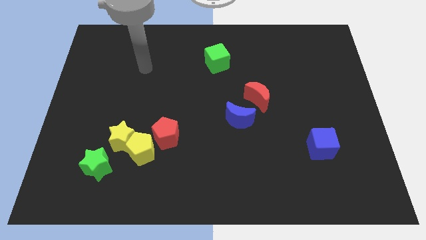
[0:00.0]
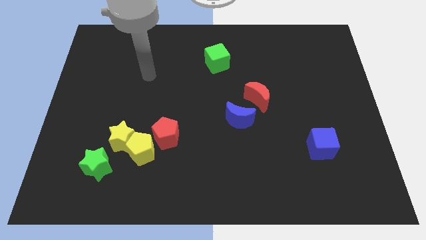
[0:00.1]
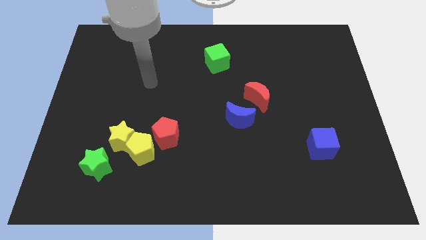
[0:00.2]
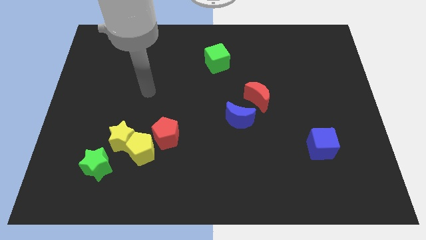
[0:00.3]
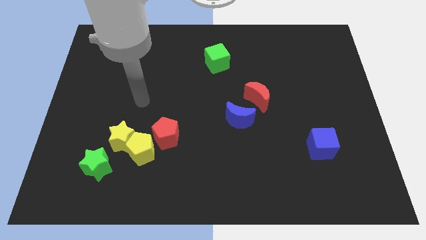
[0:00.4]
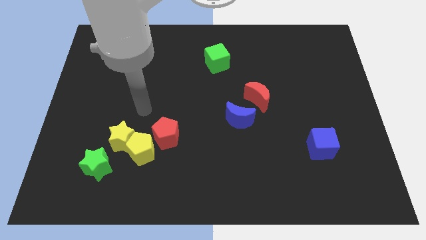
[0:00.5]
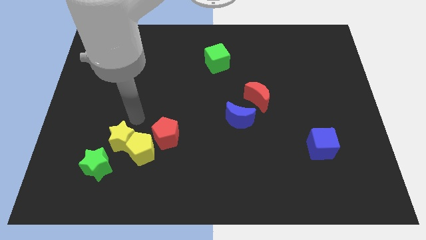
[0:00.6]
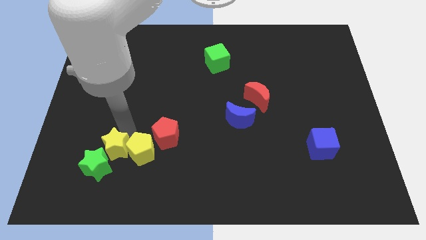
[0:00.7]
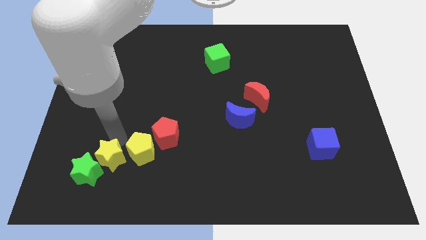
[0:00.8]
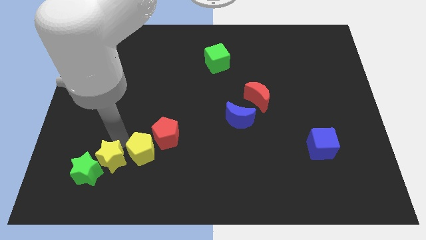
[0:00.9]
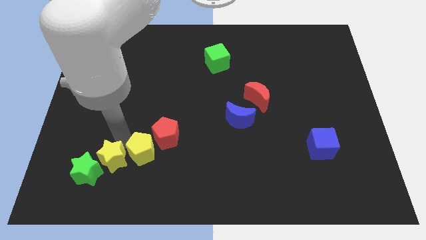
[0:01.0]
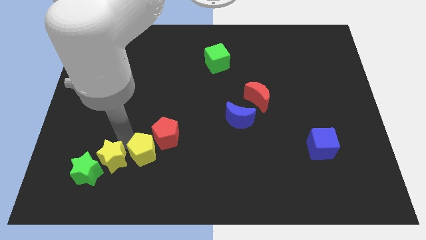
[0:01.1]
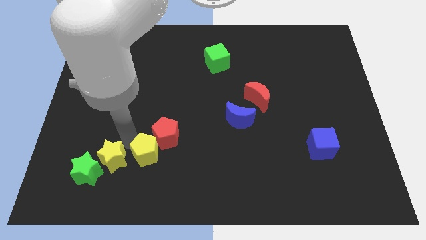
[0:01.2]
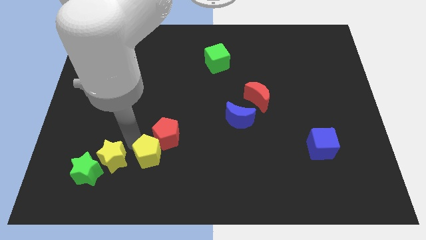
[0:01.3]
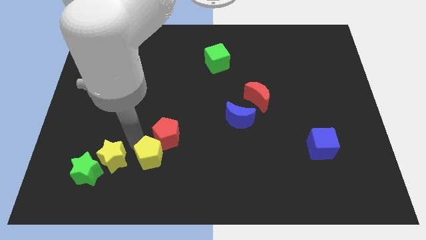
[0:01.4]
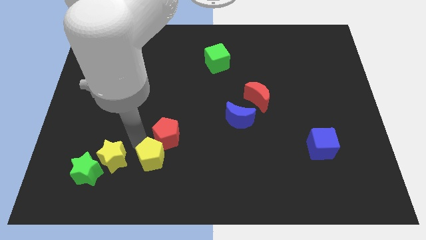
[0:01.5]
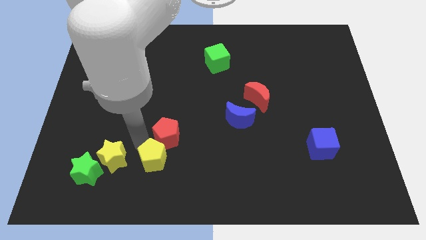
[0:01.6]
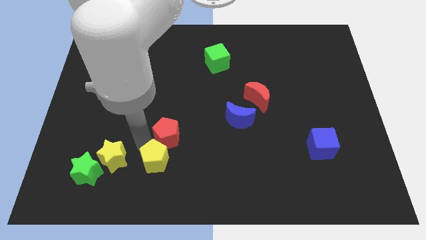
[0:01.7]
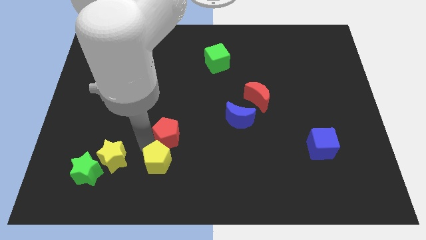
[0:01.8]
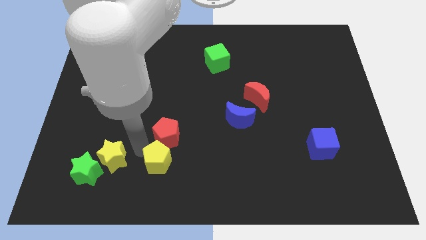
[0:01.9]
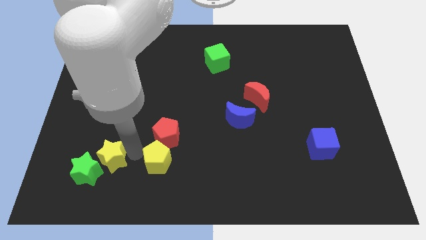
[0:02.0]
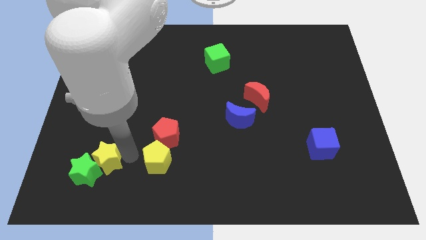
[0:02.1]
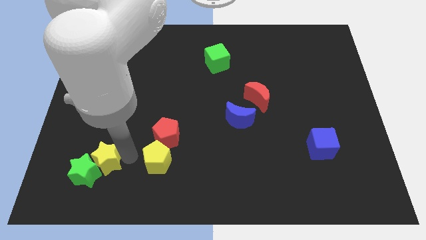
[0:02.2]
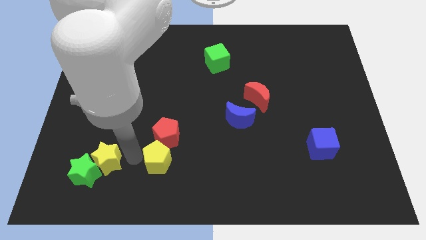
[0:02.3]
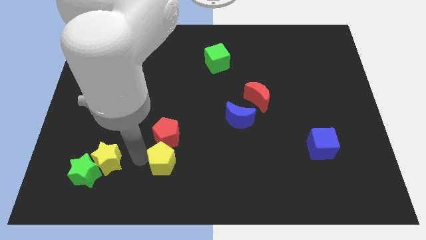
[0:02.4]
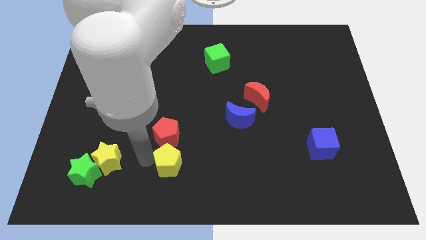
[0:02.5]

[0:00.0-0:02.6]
pull the yellow pentagon apart from the group of blocks

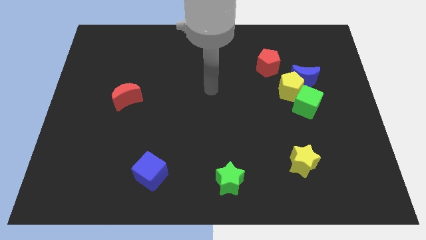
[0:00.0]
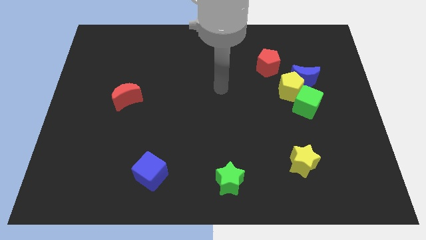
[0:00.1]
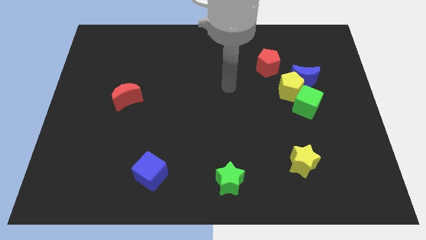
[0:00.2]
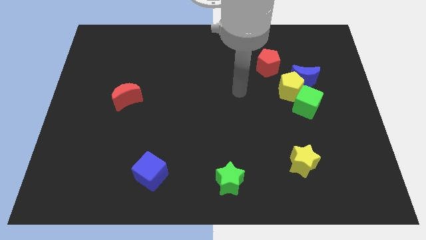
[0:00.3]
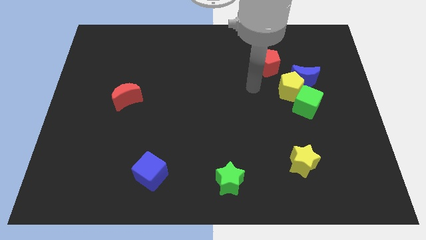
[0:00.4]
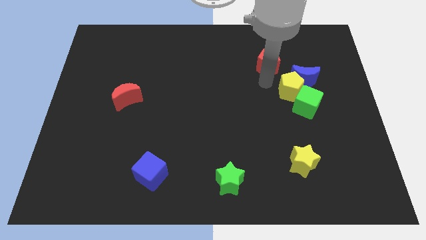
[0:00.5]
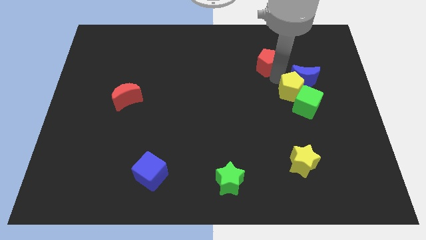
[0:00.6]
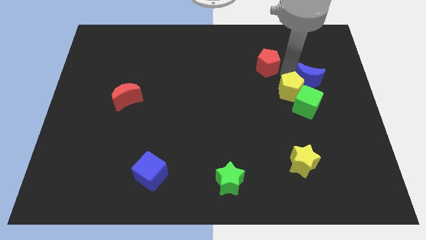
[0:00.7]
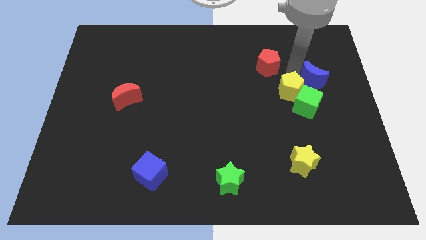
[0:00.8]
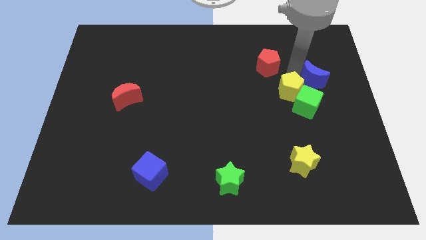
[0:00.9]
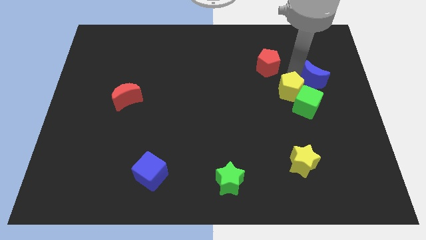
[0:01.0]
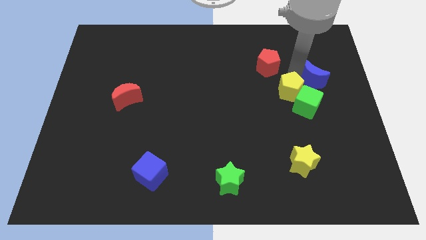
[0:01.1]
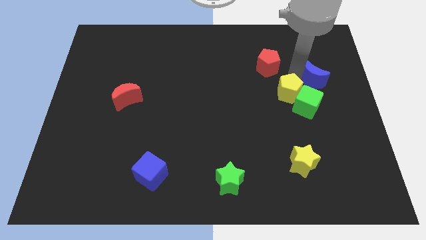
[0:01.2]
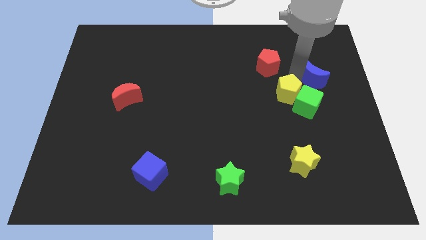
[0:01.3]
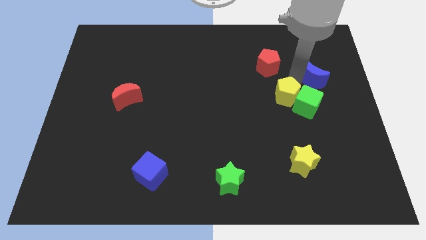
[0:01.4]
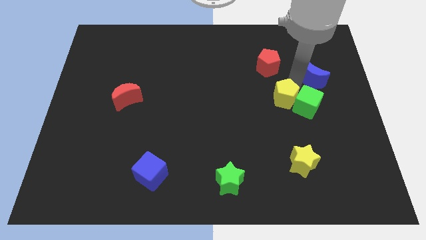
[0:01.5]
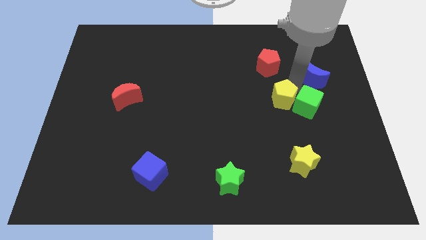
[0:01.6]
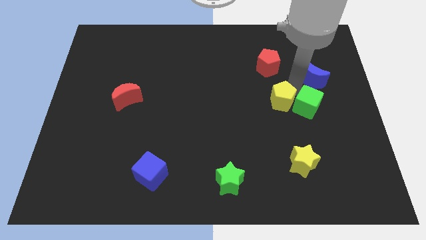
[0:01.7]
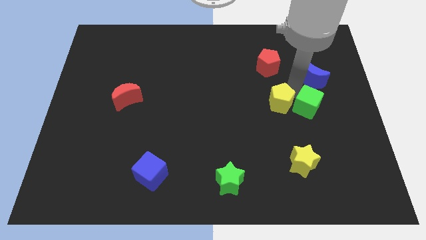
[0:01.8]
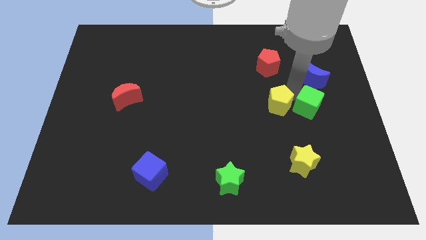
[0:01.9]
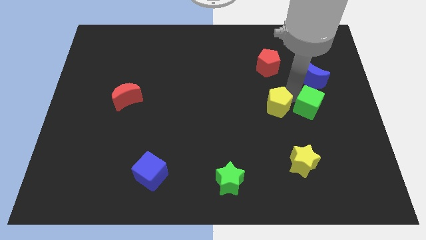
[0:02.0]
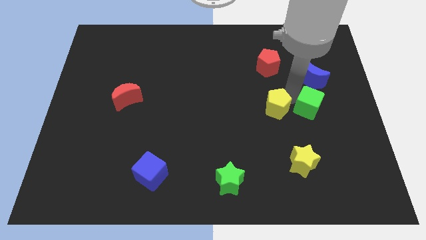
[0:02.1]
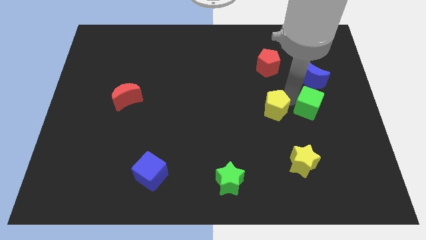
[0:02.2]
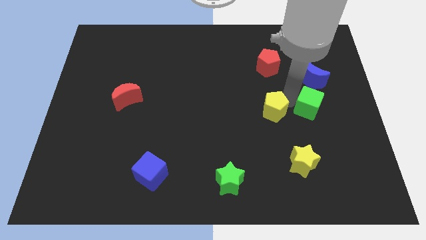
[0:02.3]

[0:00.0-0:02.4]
separate the yellow pentagon from the blue moon, green cube, and red pentagon

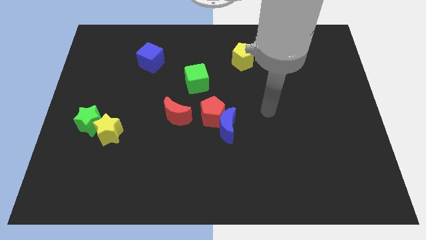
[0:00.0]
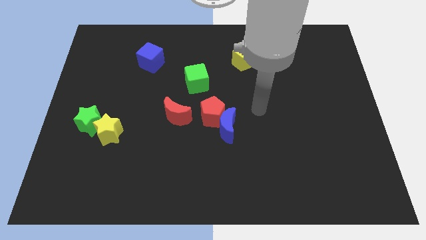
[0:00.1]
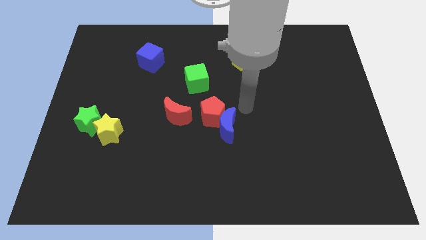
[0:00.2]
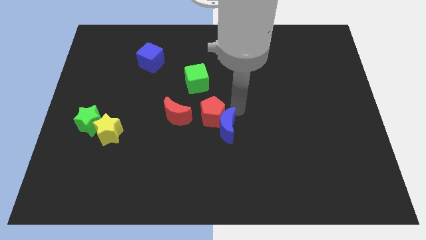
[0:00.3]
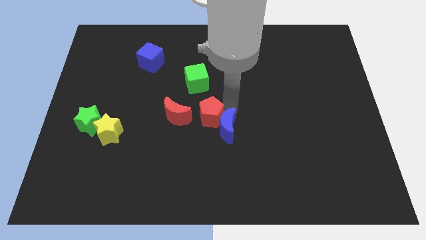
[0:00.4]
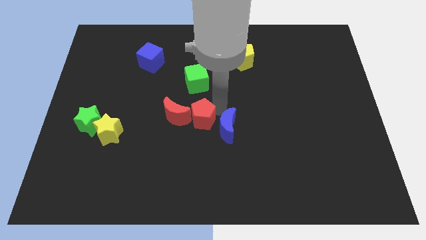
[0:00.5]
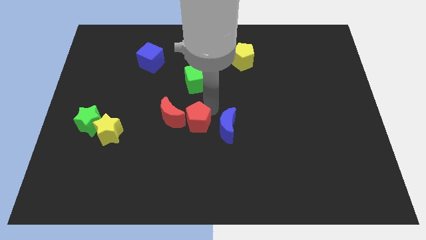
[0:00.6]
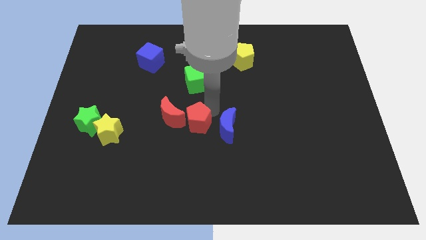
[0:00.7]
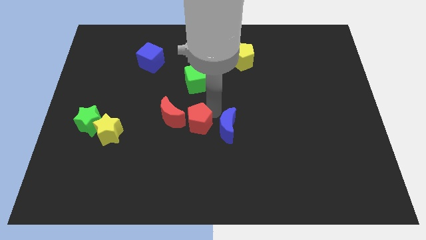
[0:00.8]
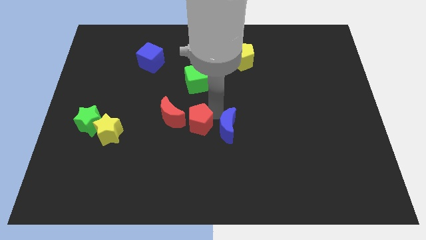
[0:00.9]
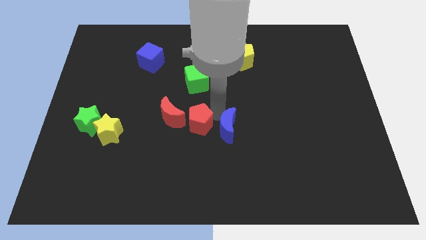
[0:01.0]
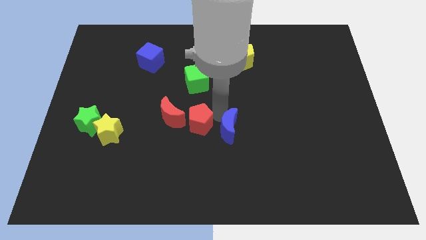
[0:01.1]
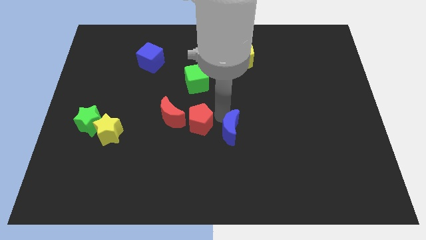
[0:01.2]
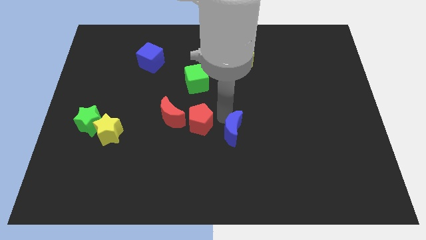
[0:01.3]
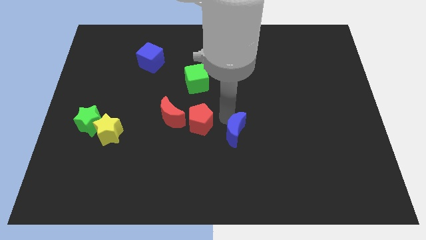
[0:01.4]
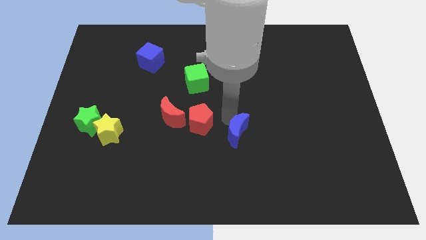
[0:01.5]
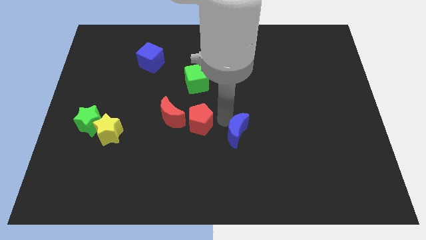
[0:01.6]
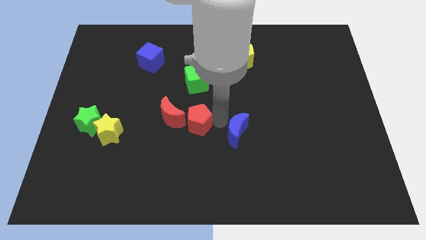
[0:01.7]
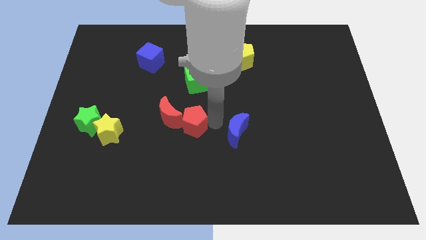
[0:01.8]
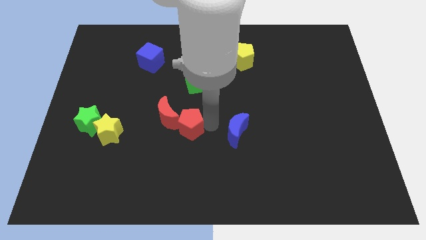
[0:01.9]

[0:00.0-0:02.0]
separate the blue moon from the red pentagon

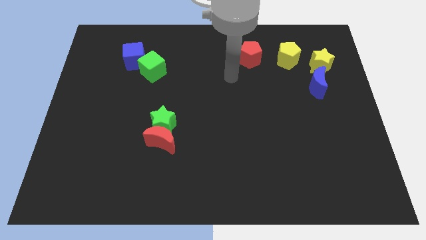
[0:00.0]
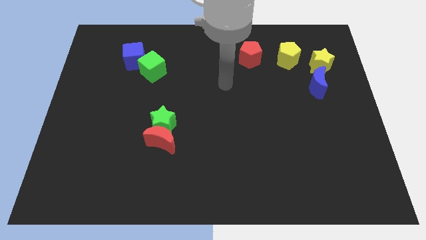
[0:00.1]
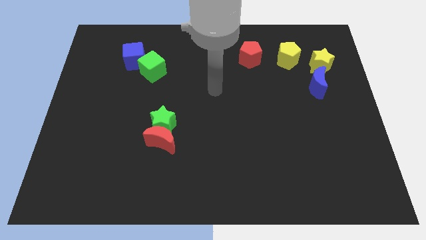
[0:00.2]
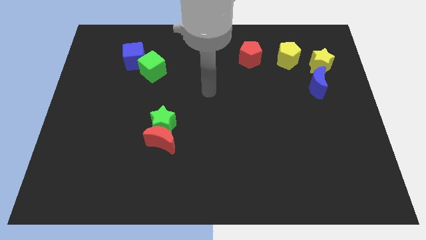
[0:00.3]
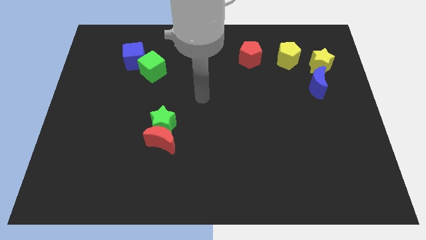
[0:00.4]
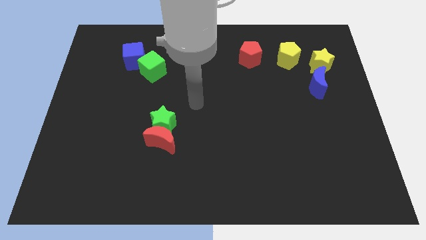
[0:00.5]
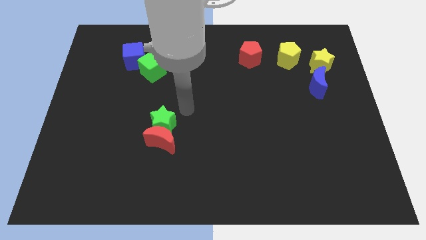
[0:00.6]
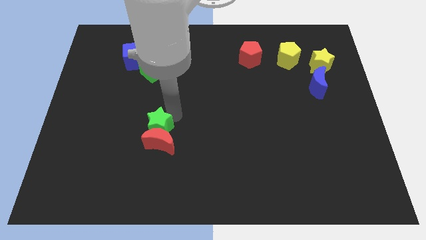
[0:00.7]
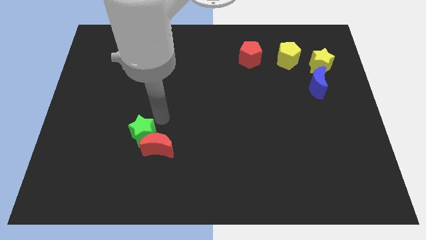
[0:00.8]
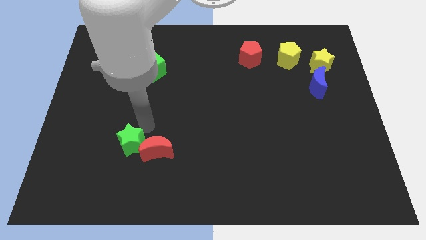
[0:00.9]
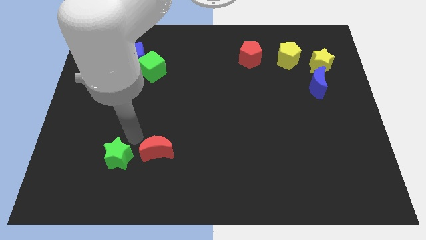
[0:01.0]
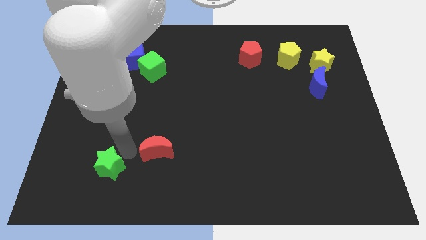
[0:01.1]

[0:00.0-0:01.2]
separate the red moon from the green star

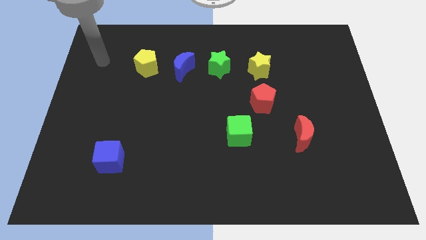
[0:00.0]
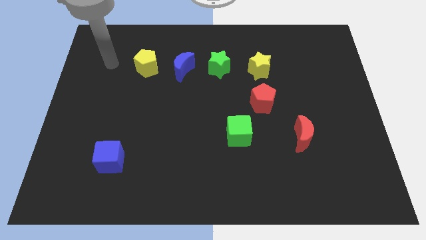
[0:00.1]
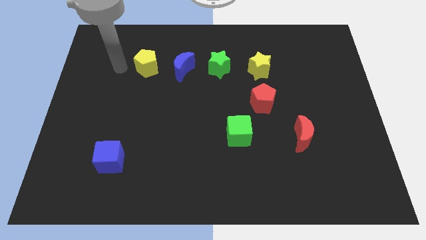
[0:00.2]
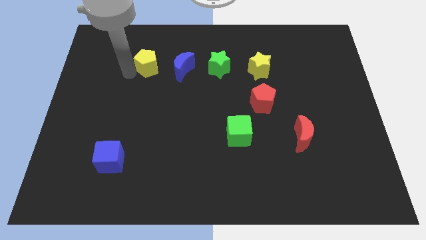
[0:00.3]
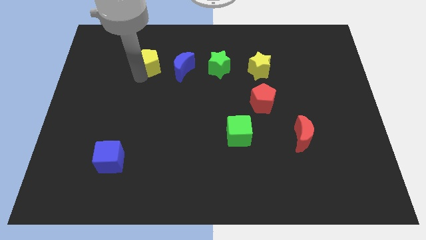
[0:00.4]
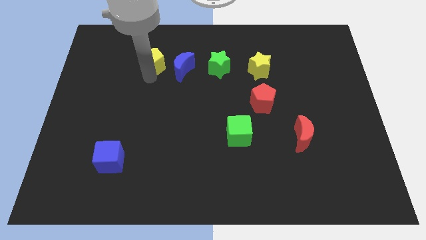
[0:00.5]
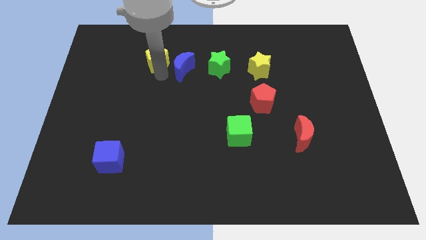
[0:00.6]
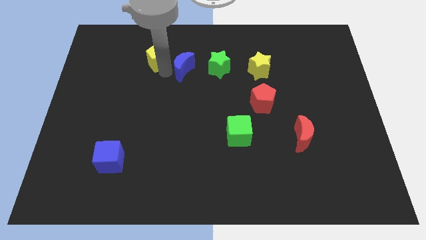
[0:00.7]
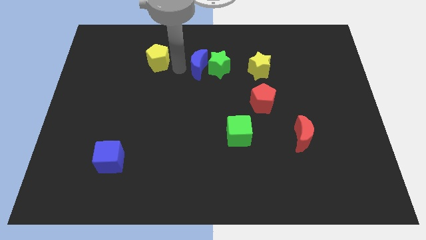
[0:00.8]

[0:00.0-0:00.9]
move the yellow pentagon away from the blue moon

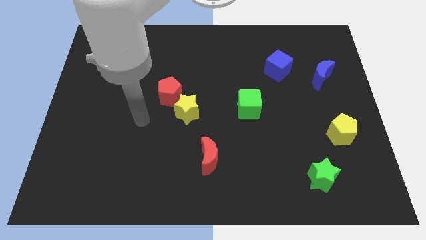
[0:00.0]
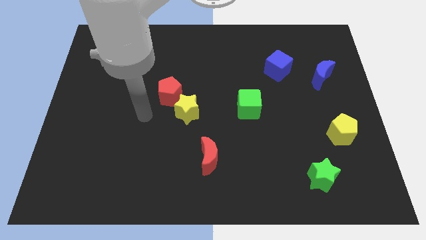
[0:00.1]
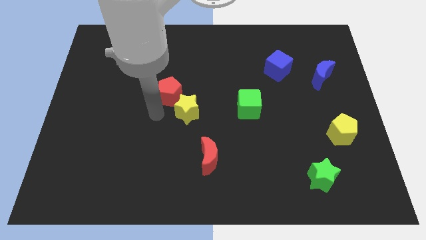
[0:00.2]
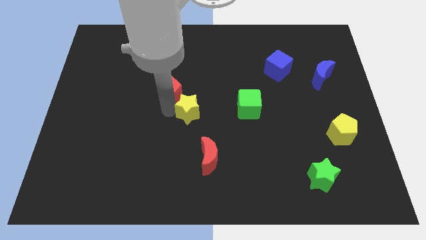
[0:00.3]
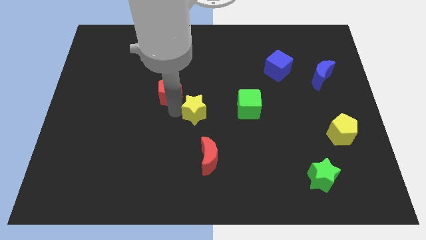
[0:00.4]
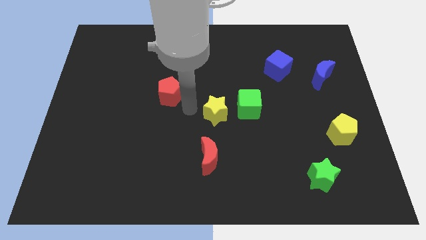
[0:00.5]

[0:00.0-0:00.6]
move the red pentagon away from the yellow star
